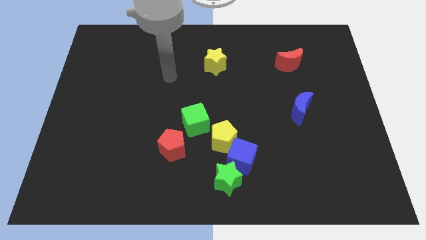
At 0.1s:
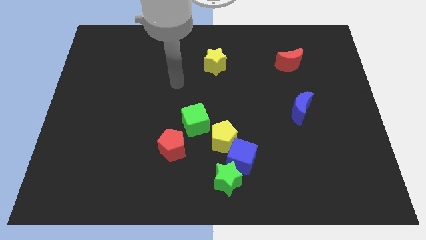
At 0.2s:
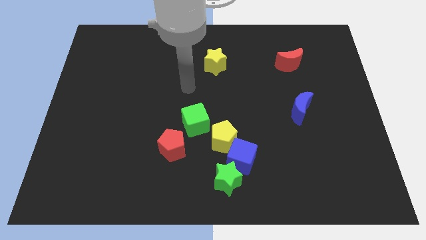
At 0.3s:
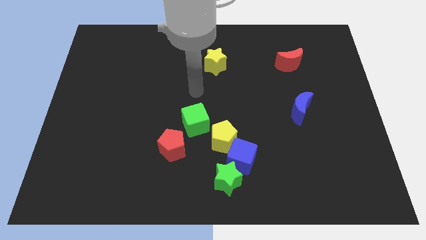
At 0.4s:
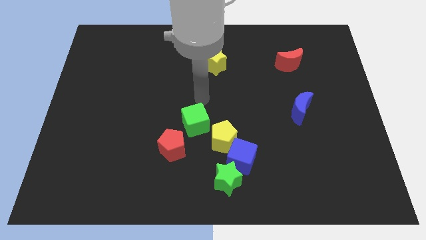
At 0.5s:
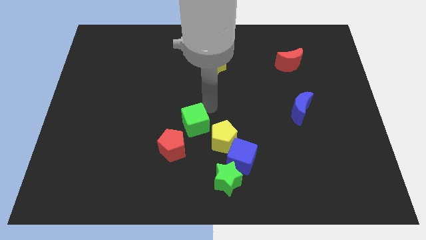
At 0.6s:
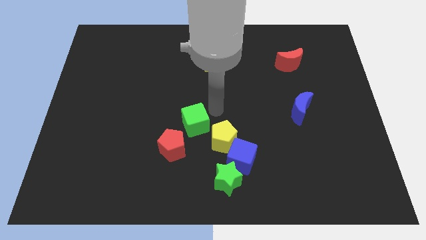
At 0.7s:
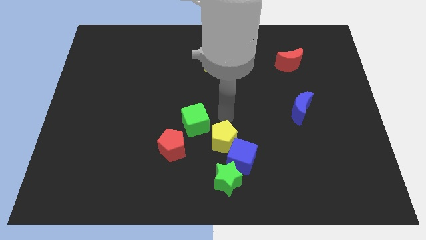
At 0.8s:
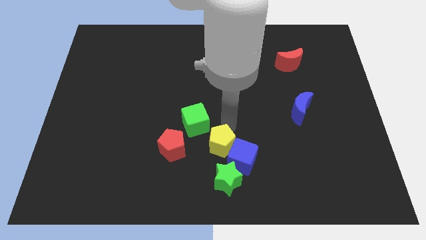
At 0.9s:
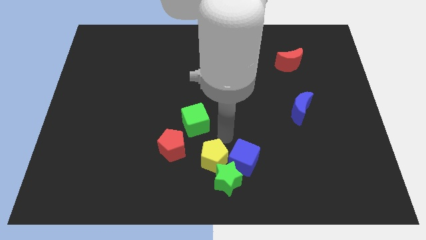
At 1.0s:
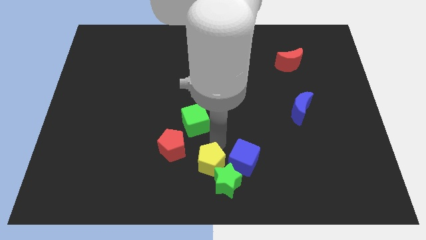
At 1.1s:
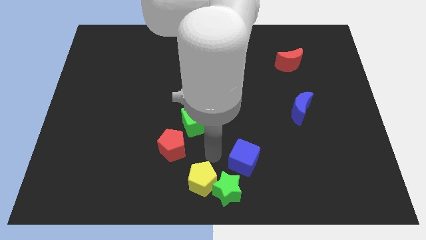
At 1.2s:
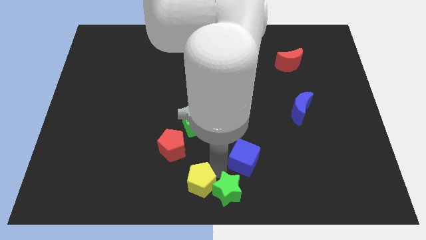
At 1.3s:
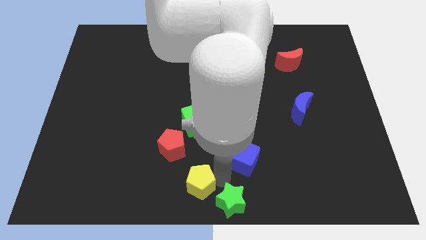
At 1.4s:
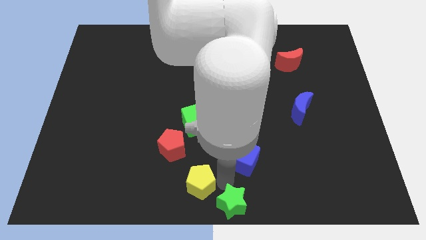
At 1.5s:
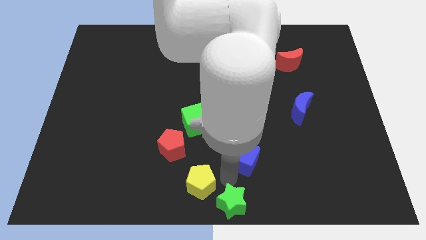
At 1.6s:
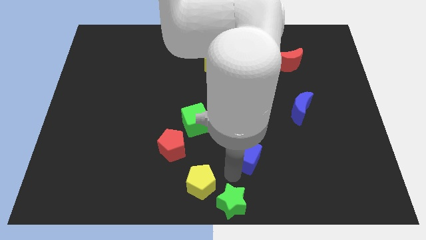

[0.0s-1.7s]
move the blue cube away from the yellow pentagon and green star

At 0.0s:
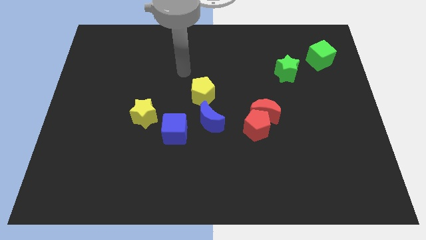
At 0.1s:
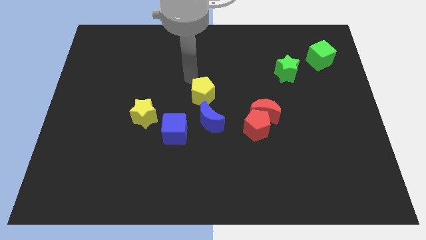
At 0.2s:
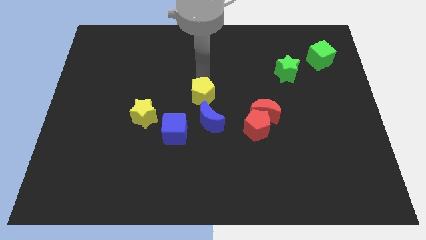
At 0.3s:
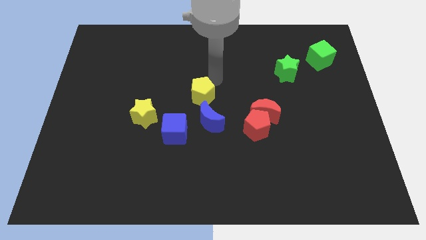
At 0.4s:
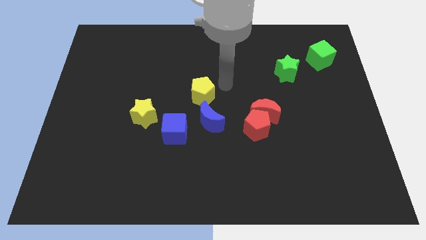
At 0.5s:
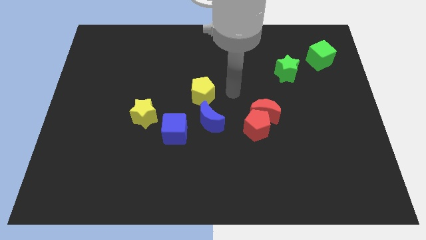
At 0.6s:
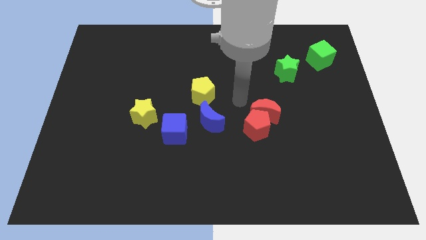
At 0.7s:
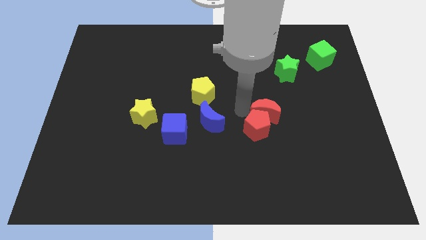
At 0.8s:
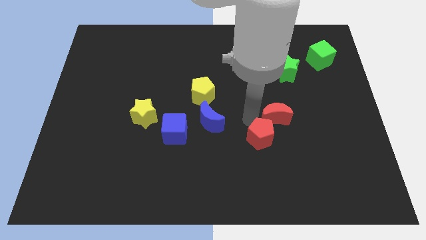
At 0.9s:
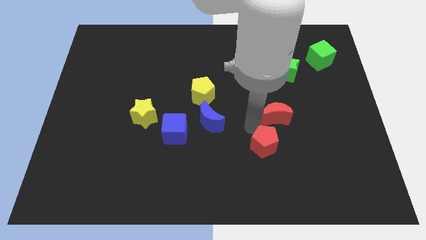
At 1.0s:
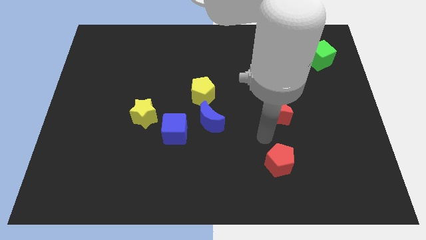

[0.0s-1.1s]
move the red moon away from the red pentagon

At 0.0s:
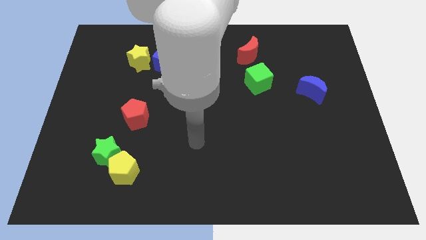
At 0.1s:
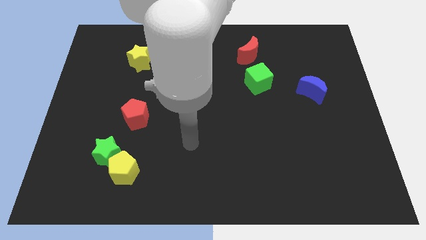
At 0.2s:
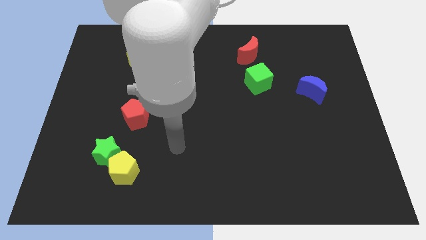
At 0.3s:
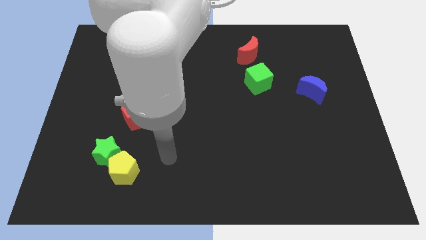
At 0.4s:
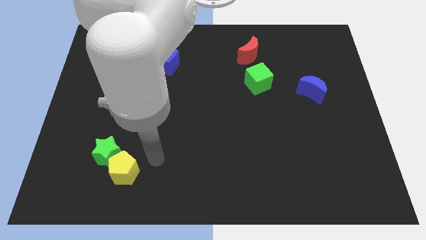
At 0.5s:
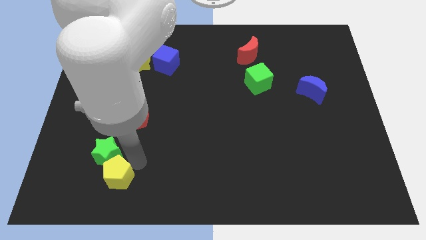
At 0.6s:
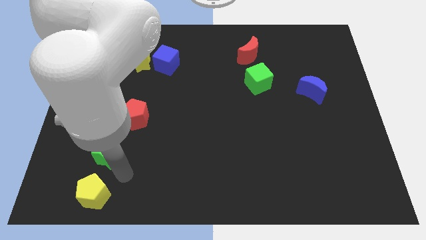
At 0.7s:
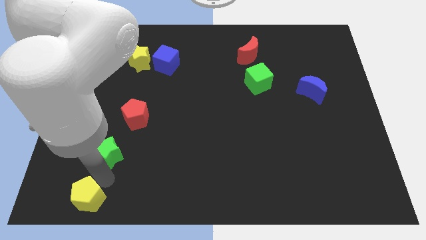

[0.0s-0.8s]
pull the green star apart from the yellow pentagon

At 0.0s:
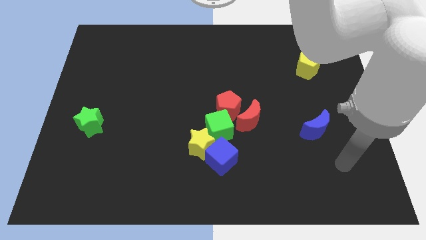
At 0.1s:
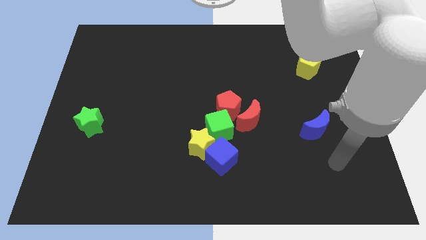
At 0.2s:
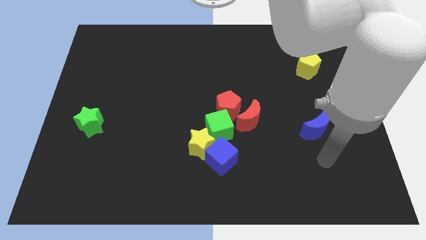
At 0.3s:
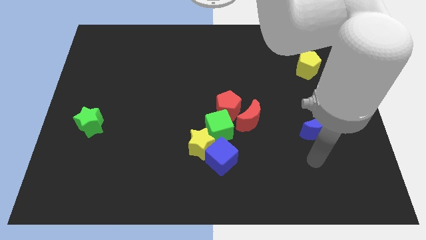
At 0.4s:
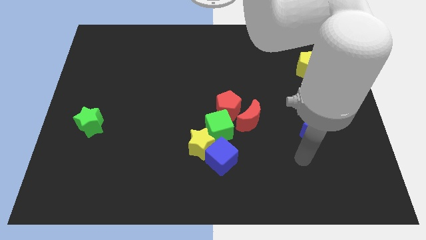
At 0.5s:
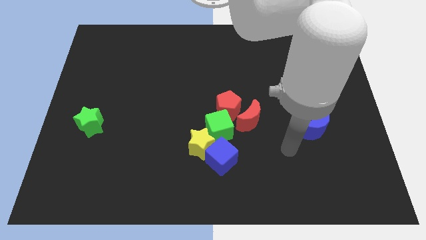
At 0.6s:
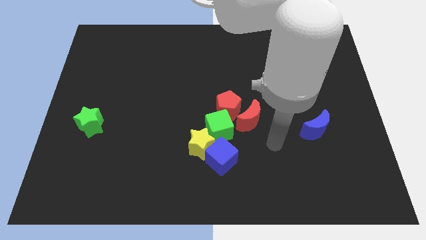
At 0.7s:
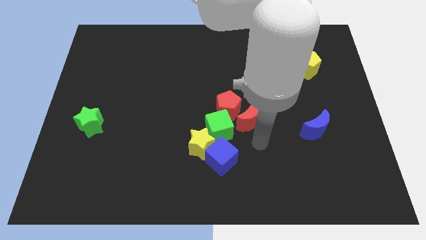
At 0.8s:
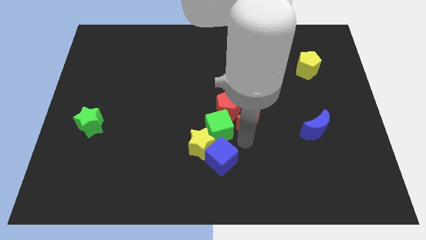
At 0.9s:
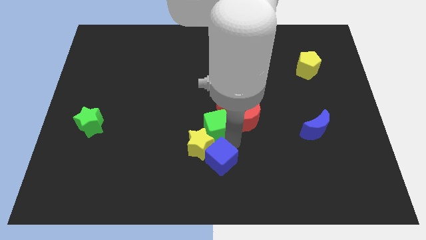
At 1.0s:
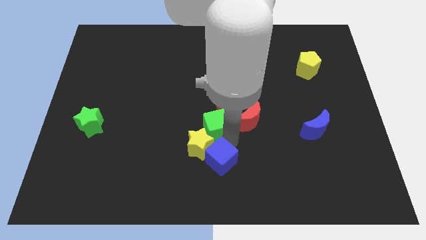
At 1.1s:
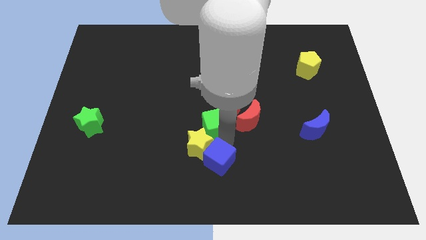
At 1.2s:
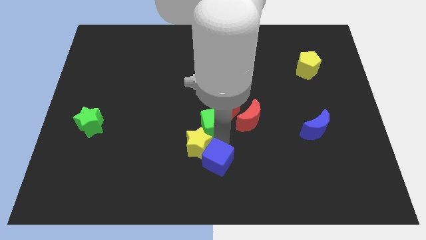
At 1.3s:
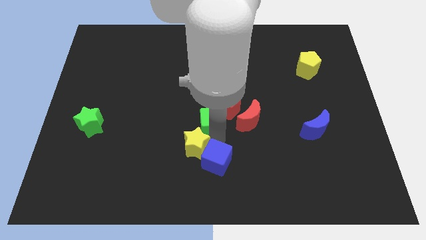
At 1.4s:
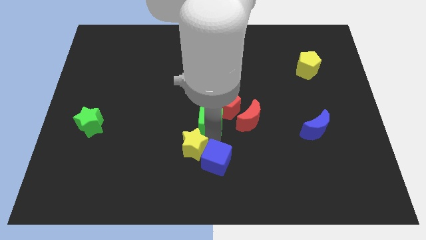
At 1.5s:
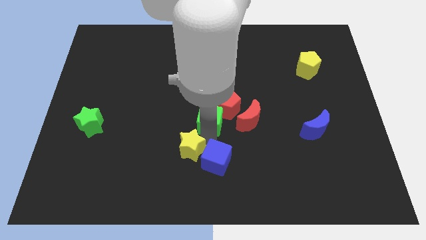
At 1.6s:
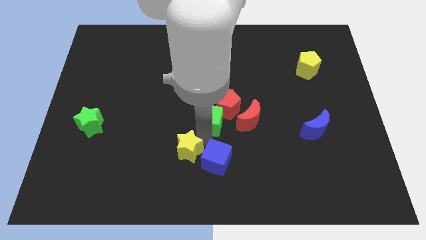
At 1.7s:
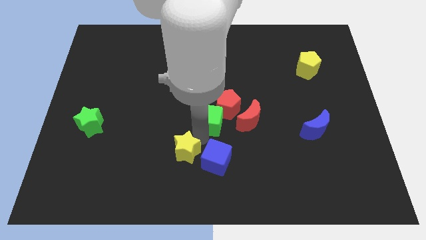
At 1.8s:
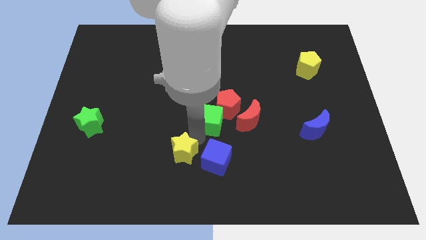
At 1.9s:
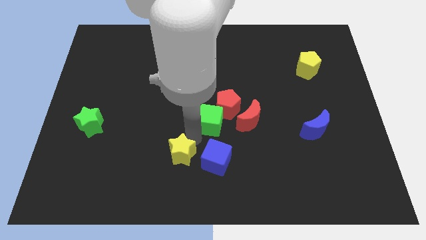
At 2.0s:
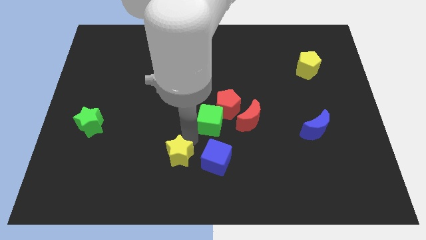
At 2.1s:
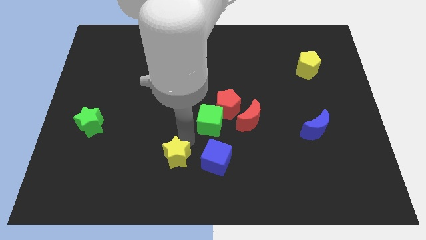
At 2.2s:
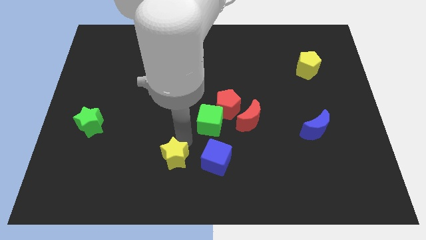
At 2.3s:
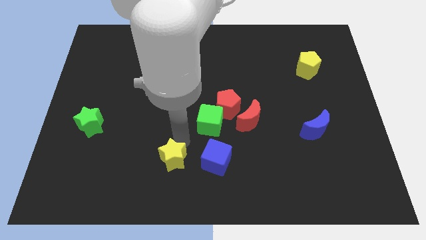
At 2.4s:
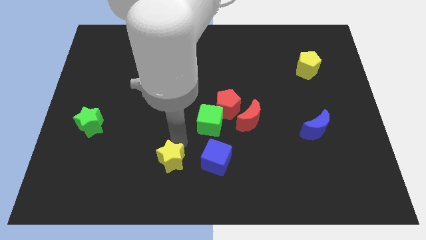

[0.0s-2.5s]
separate the yellow star from the blue cube and green cube

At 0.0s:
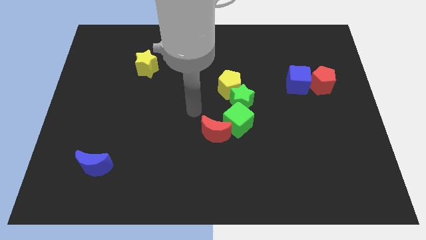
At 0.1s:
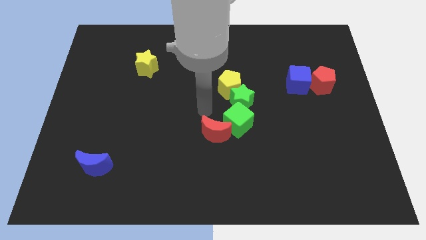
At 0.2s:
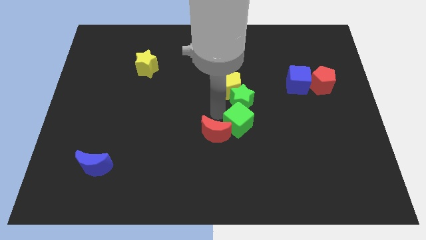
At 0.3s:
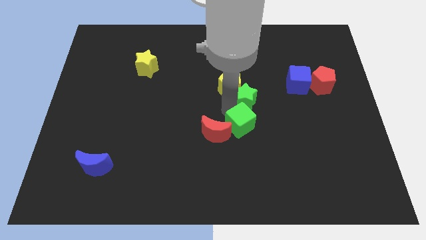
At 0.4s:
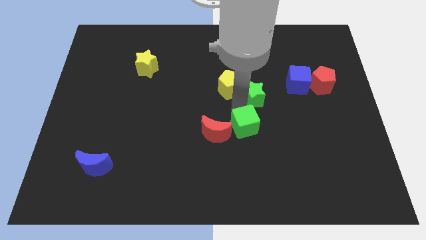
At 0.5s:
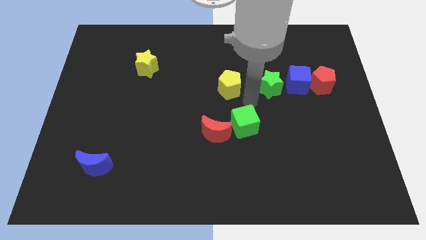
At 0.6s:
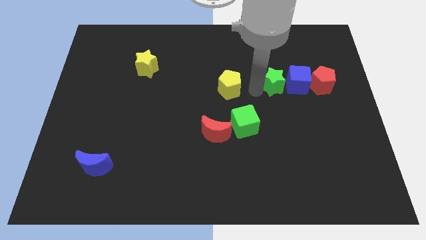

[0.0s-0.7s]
move the yellow pentagon away from the green star

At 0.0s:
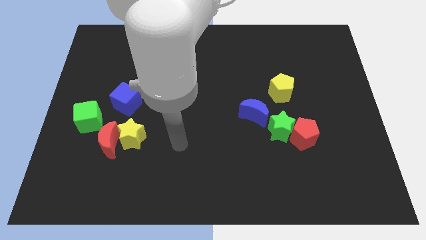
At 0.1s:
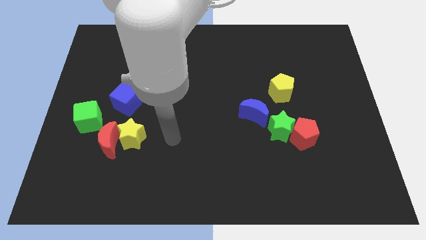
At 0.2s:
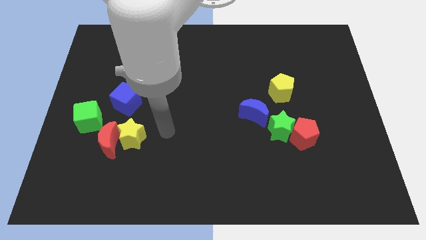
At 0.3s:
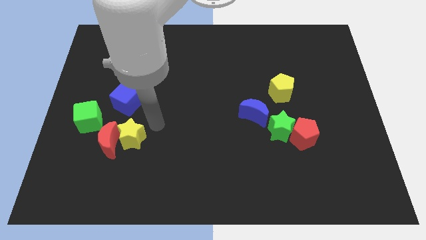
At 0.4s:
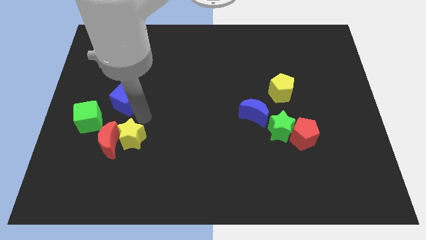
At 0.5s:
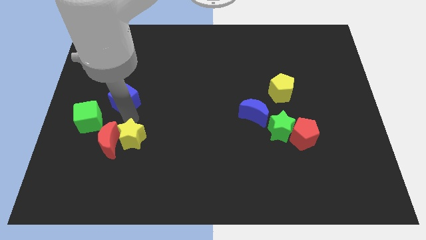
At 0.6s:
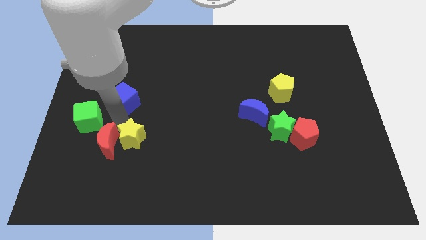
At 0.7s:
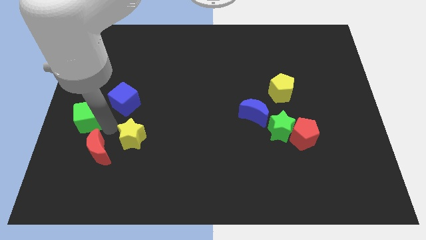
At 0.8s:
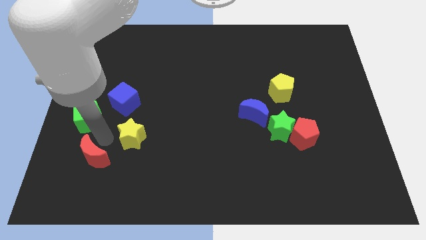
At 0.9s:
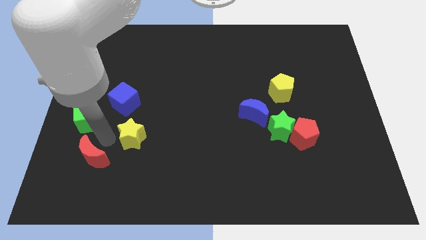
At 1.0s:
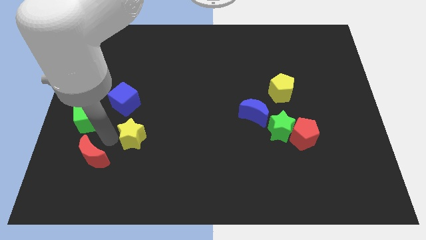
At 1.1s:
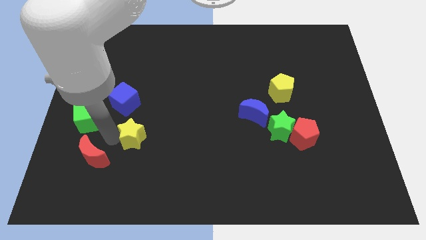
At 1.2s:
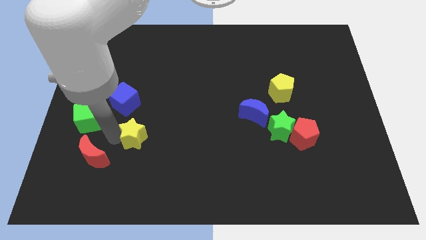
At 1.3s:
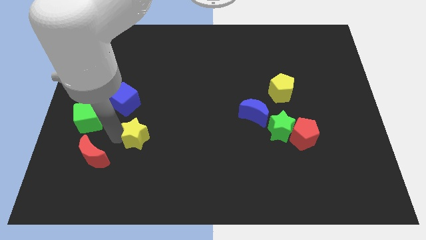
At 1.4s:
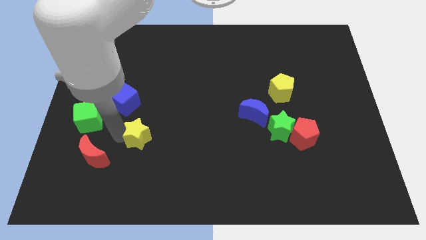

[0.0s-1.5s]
pull the yellow star apart from the red moon

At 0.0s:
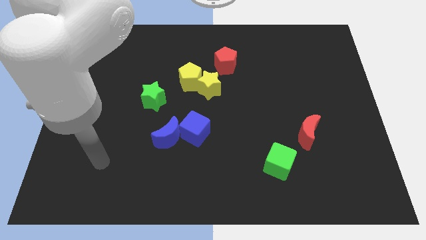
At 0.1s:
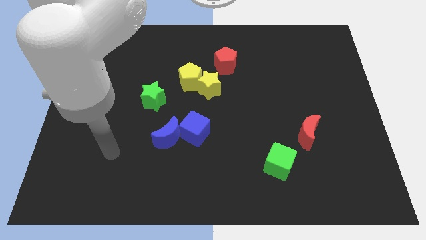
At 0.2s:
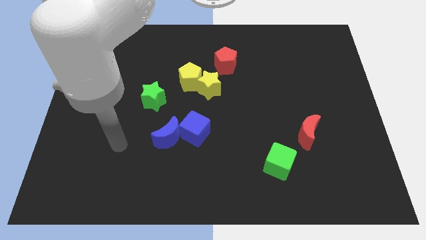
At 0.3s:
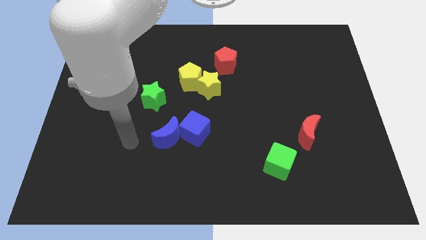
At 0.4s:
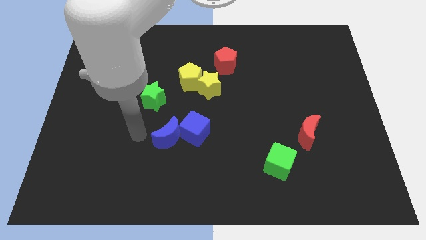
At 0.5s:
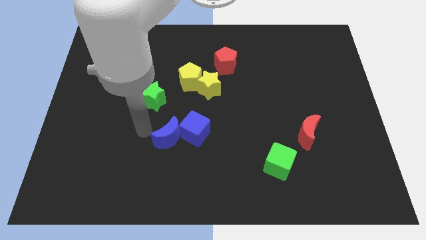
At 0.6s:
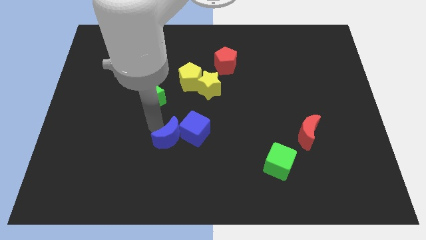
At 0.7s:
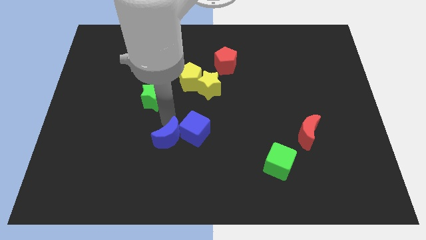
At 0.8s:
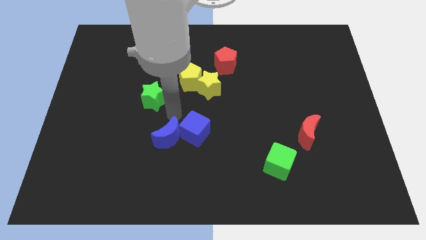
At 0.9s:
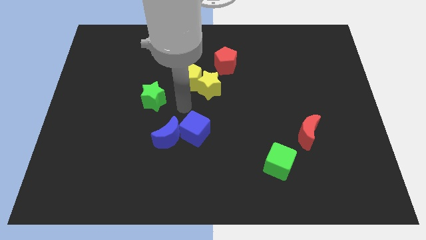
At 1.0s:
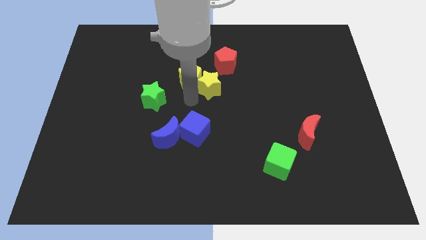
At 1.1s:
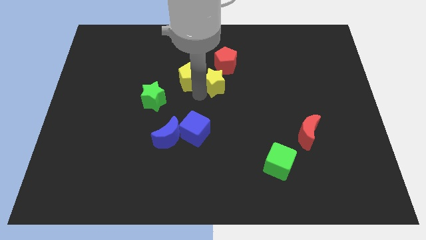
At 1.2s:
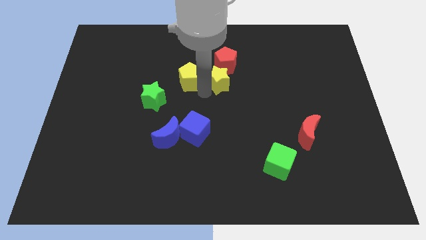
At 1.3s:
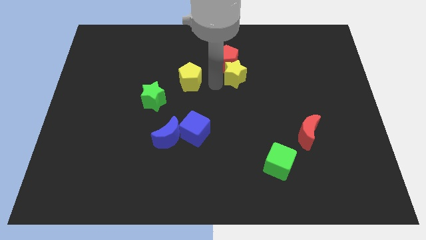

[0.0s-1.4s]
pull the yellow pentagon apart from the yellow star
